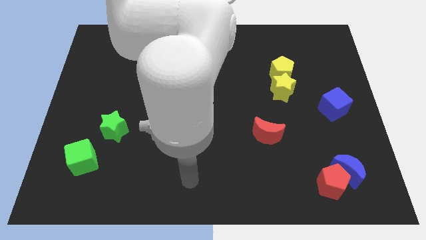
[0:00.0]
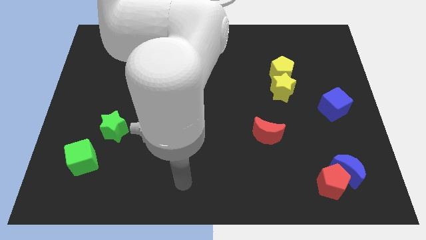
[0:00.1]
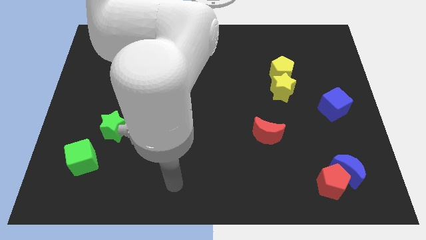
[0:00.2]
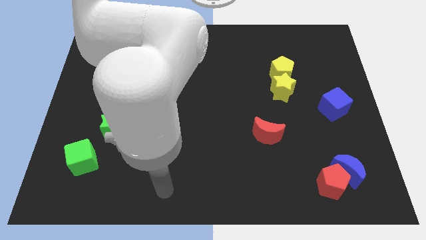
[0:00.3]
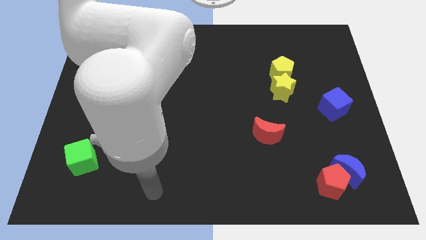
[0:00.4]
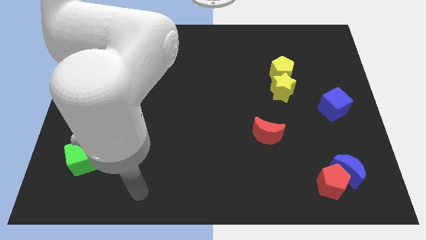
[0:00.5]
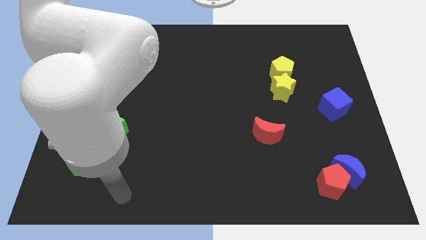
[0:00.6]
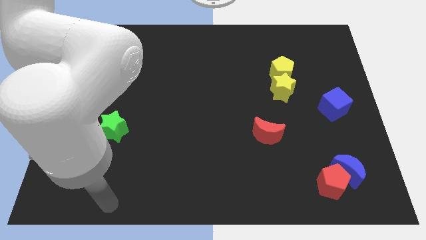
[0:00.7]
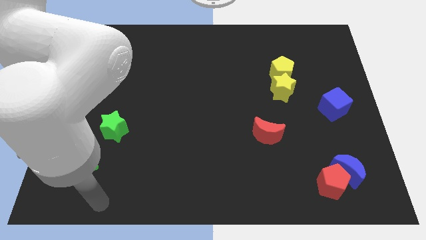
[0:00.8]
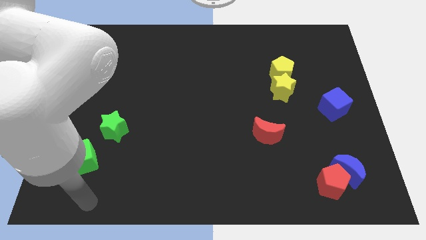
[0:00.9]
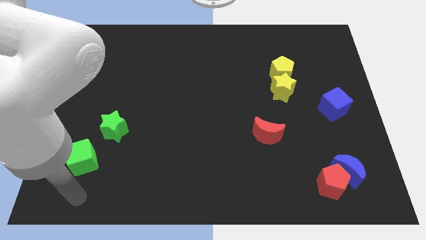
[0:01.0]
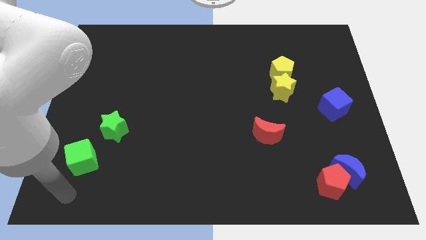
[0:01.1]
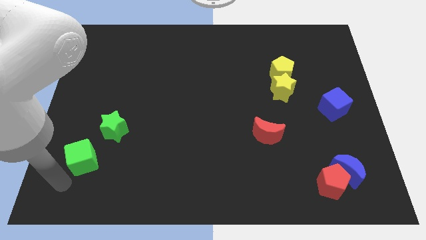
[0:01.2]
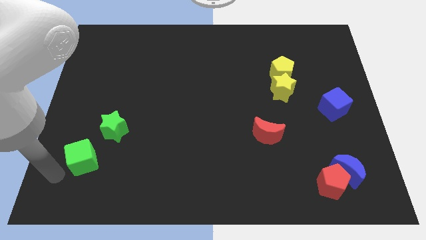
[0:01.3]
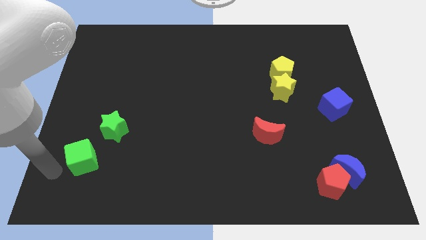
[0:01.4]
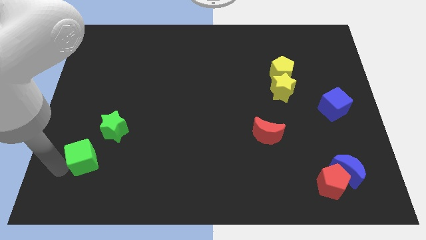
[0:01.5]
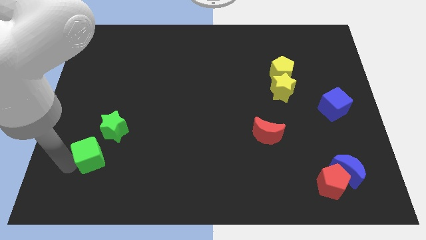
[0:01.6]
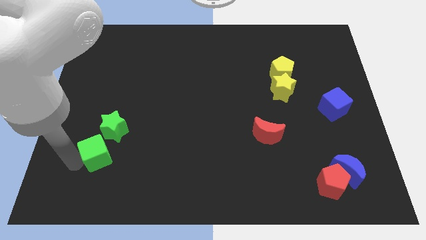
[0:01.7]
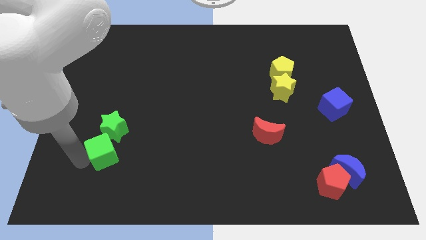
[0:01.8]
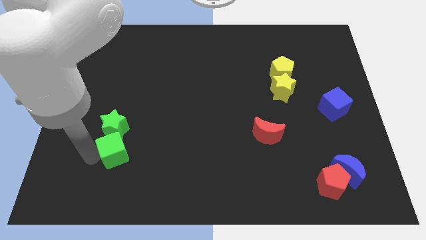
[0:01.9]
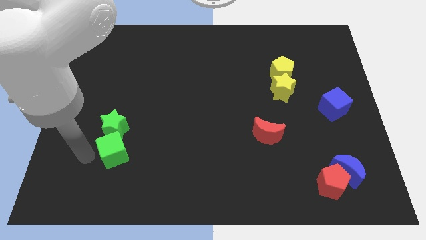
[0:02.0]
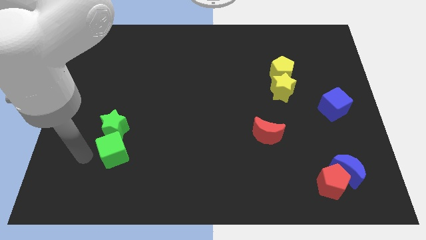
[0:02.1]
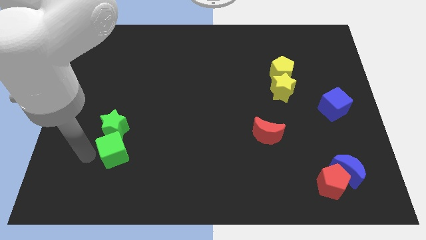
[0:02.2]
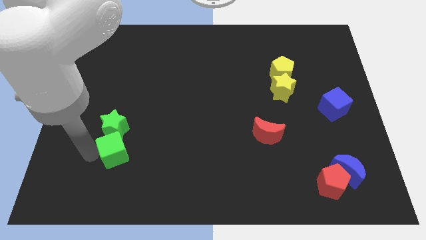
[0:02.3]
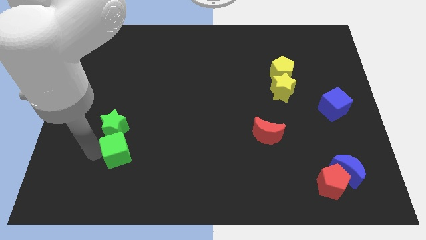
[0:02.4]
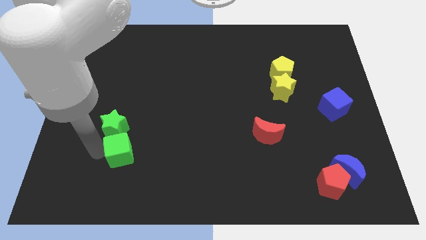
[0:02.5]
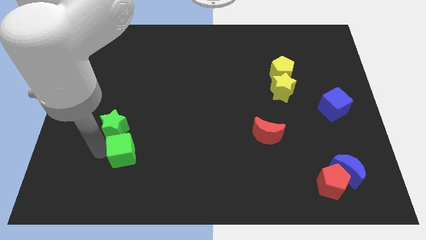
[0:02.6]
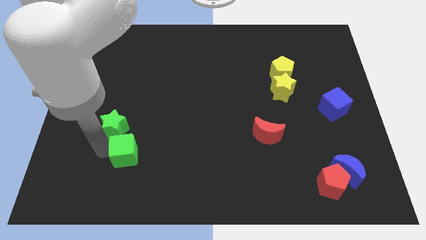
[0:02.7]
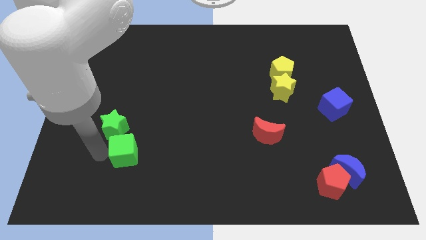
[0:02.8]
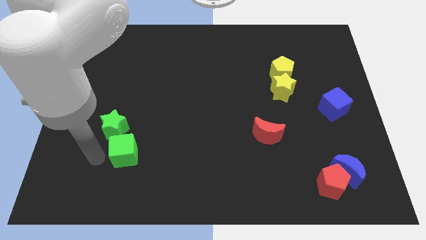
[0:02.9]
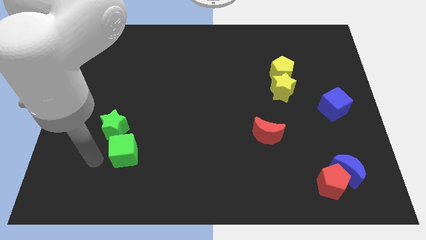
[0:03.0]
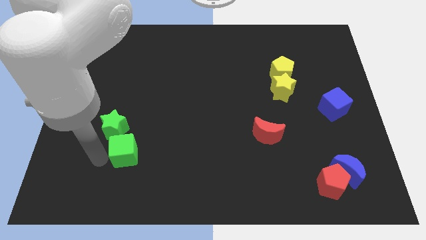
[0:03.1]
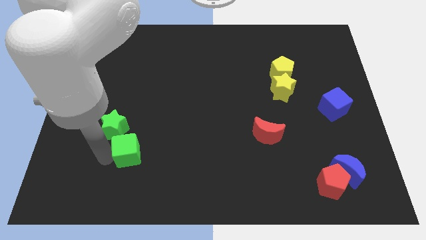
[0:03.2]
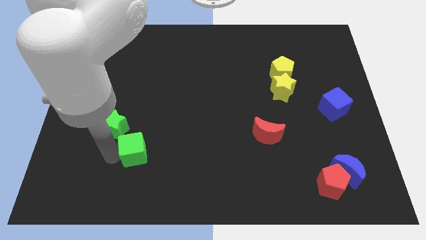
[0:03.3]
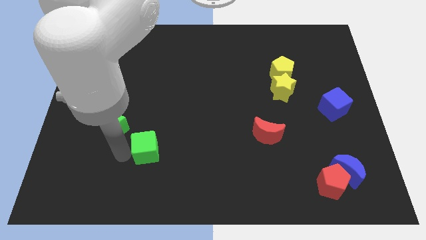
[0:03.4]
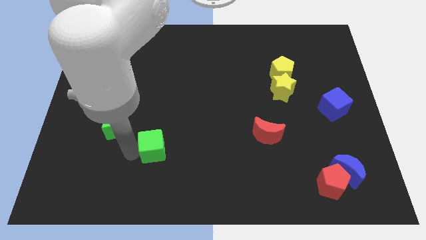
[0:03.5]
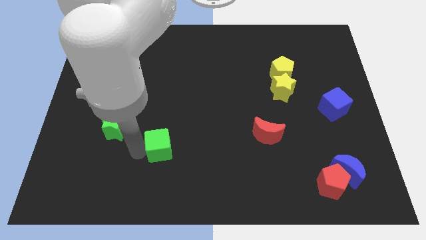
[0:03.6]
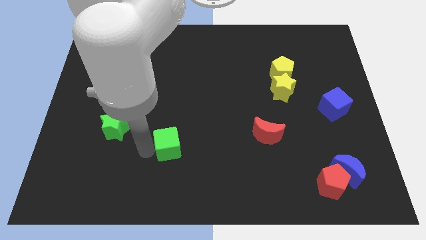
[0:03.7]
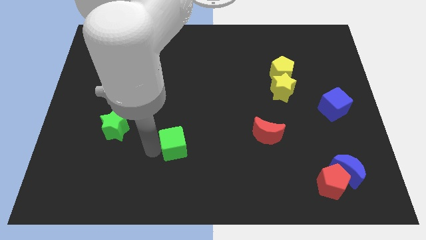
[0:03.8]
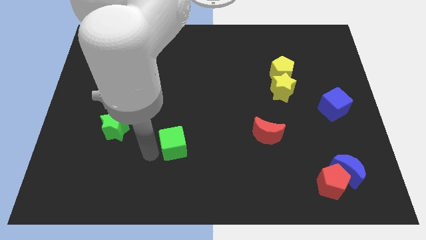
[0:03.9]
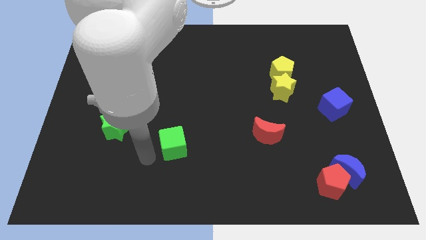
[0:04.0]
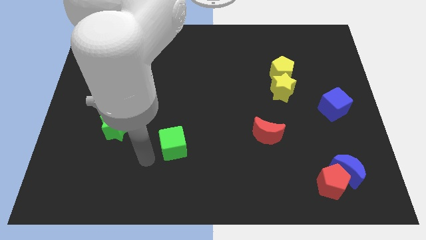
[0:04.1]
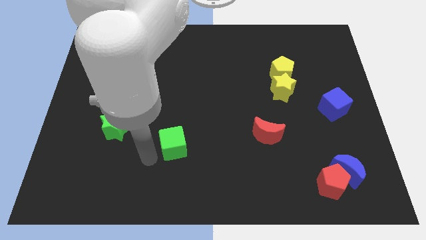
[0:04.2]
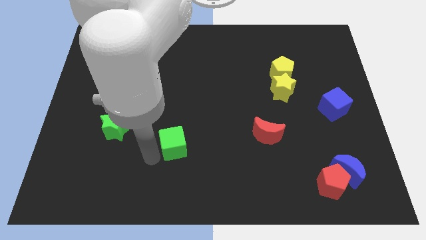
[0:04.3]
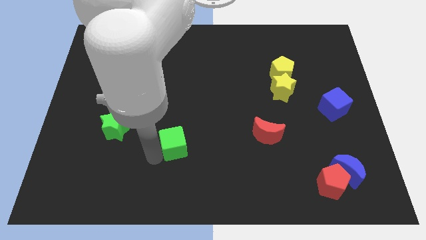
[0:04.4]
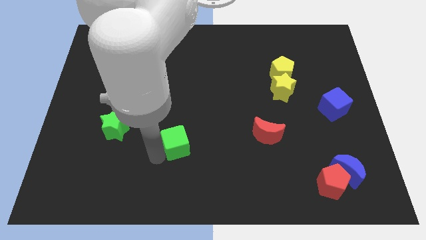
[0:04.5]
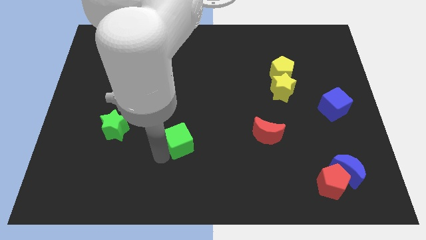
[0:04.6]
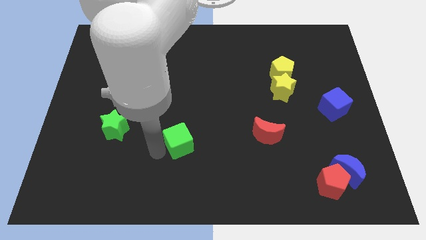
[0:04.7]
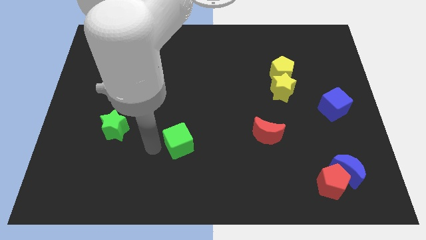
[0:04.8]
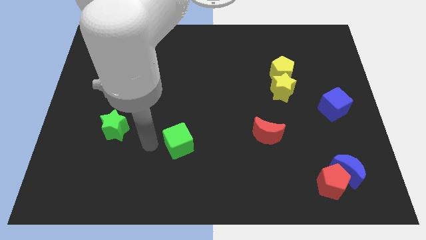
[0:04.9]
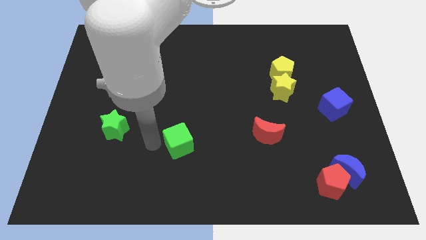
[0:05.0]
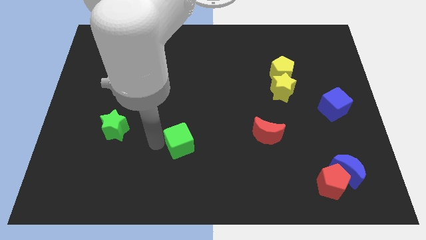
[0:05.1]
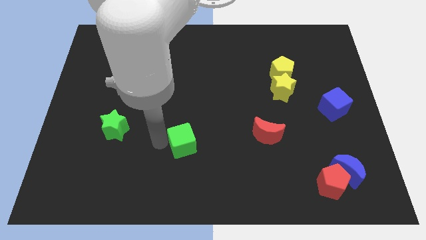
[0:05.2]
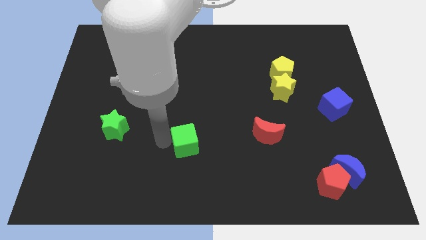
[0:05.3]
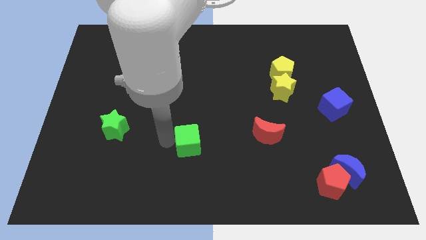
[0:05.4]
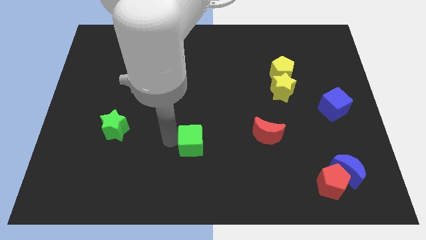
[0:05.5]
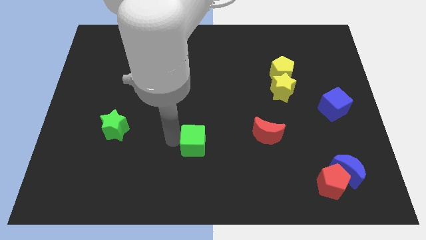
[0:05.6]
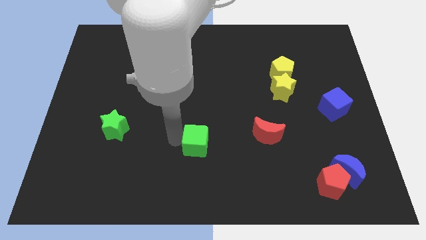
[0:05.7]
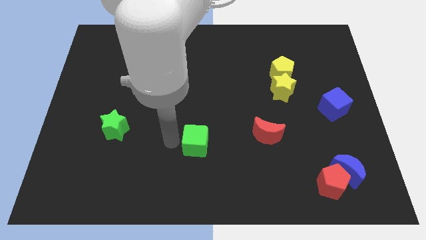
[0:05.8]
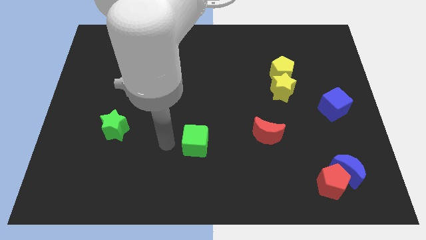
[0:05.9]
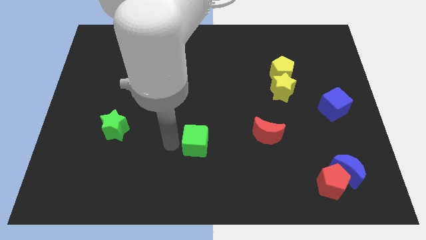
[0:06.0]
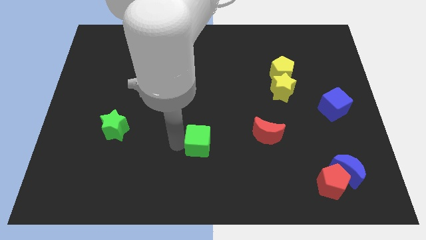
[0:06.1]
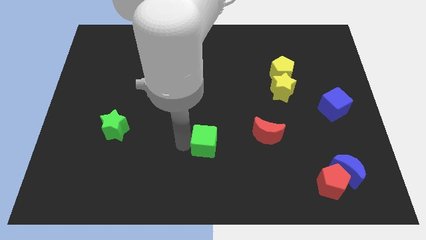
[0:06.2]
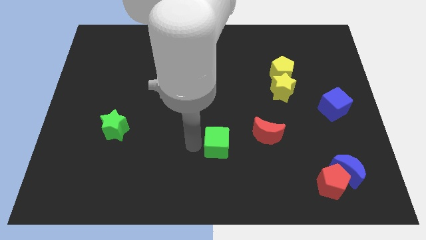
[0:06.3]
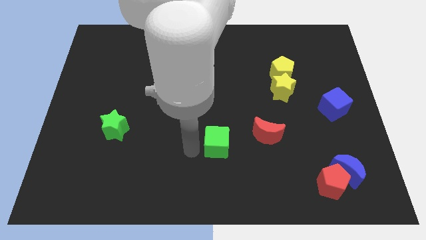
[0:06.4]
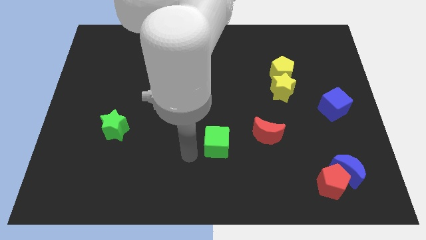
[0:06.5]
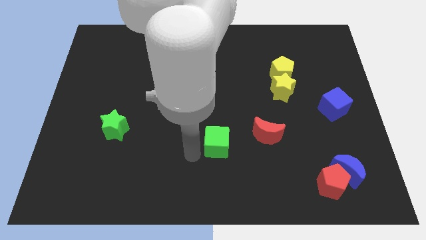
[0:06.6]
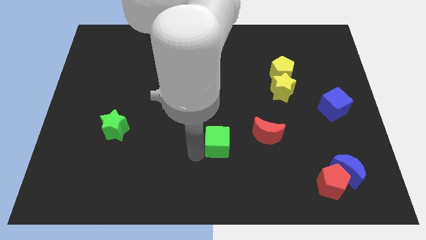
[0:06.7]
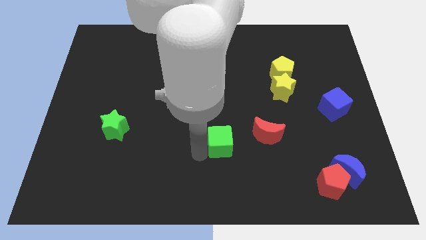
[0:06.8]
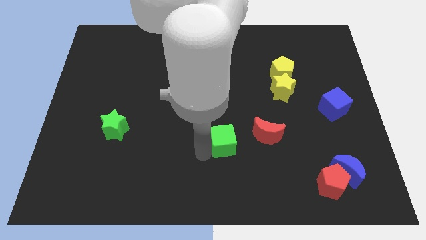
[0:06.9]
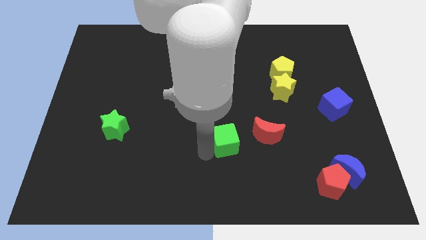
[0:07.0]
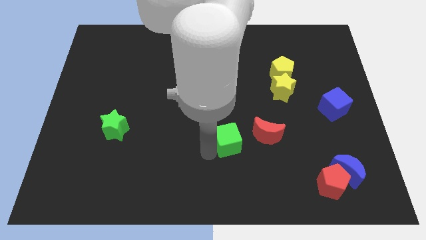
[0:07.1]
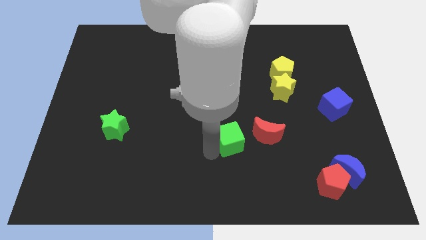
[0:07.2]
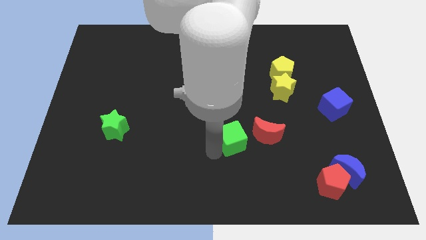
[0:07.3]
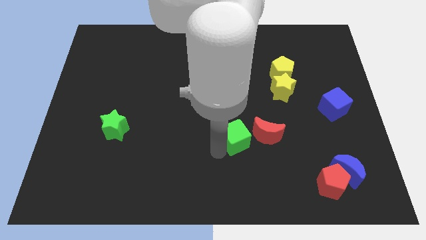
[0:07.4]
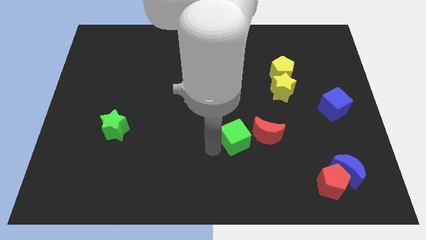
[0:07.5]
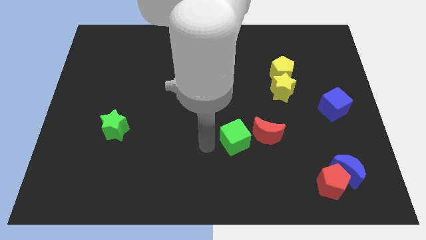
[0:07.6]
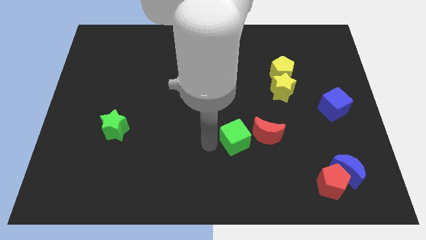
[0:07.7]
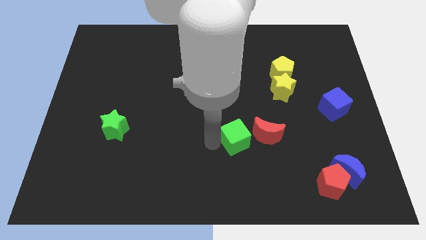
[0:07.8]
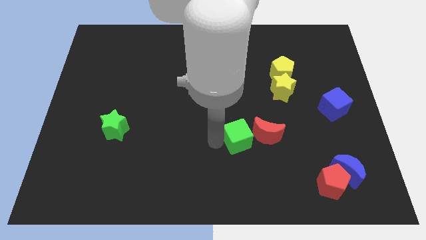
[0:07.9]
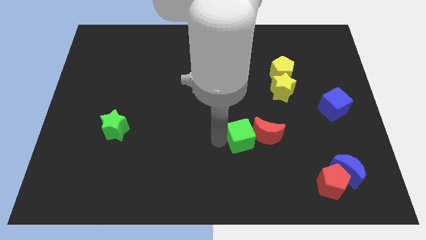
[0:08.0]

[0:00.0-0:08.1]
put the green cube close to the red moon
